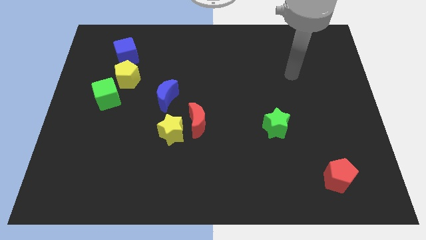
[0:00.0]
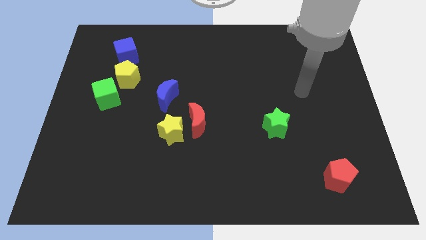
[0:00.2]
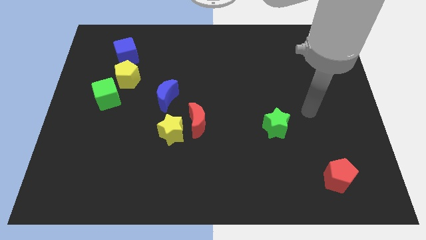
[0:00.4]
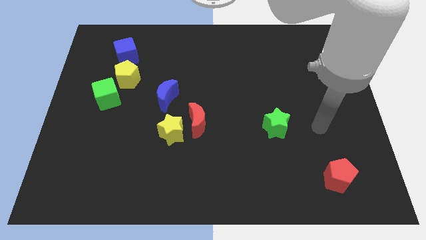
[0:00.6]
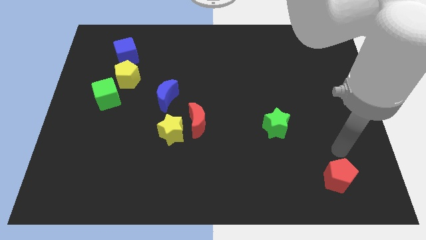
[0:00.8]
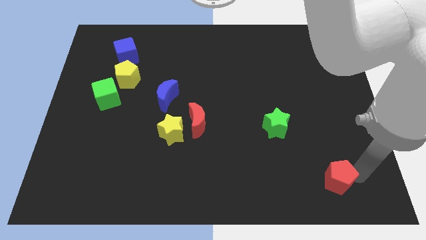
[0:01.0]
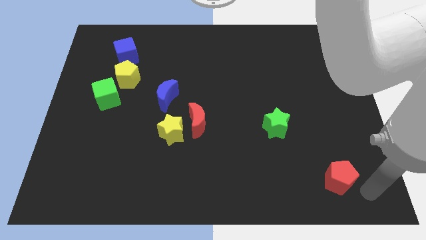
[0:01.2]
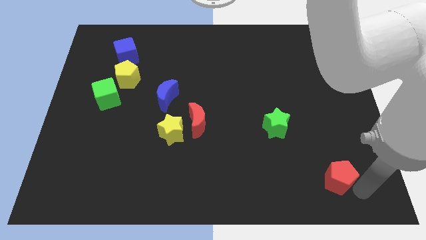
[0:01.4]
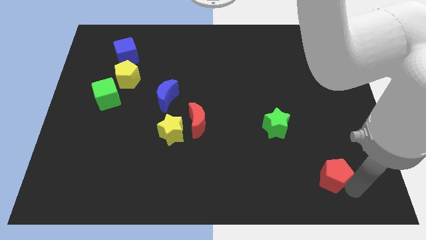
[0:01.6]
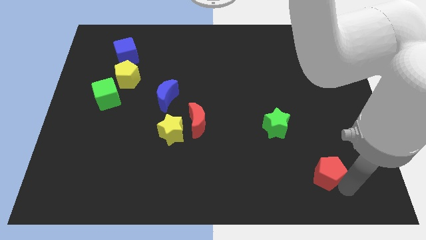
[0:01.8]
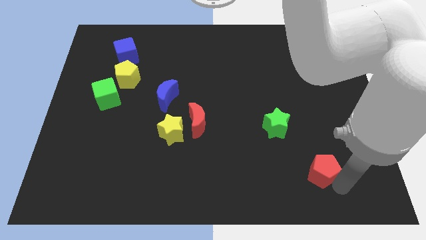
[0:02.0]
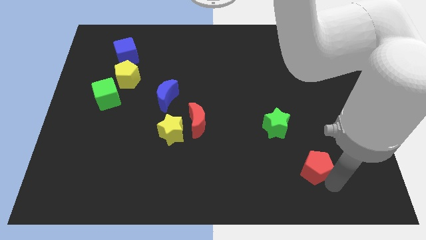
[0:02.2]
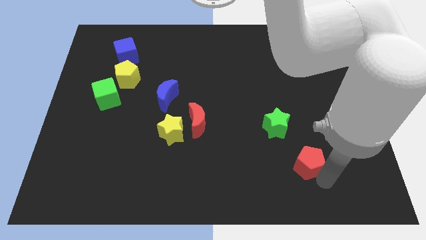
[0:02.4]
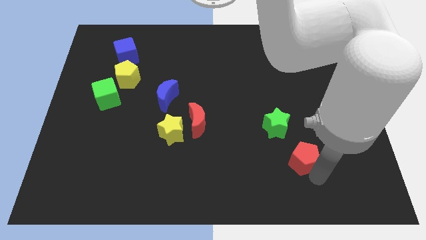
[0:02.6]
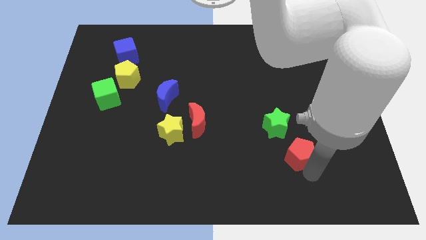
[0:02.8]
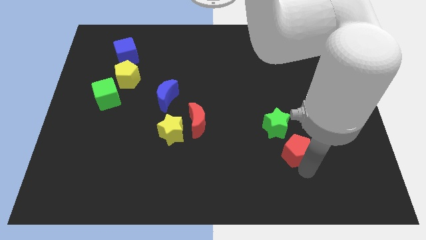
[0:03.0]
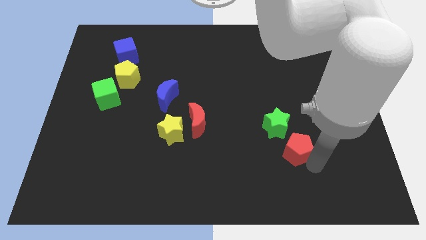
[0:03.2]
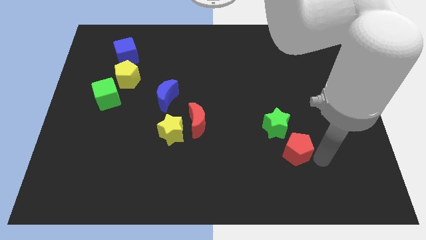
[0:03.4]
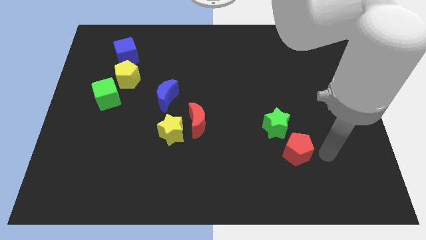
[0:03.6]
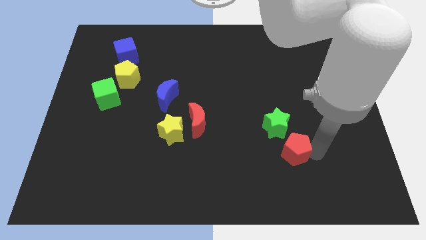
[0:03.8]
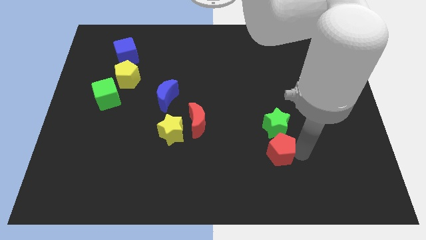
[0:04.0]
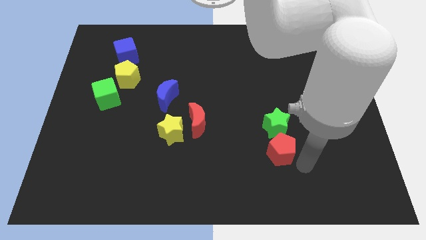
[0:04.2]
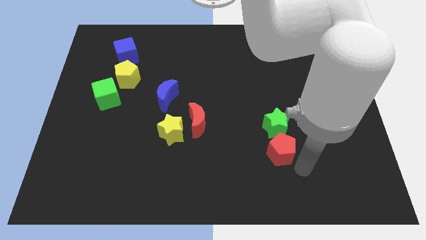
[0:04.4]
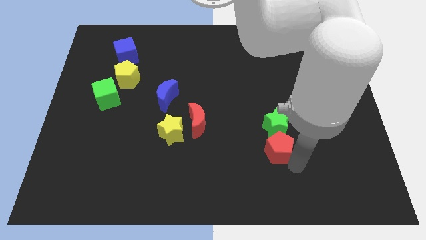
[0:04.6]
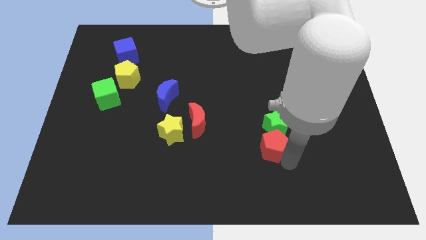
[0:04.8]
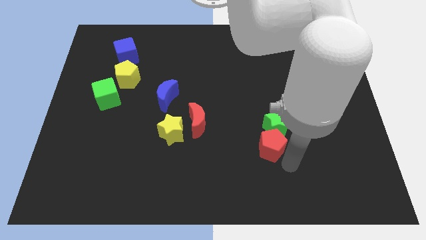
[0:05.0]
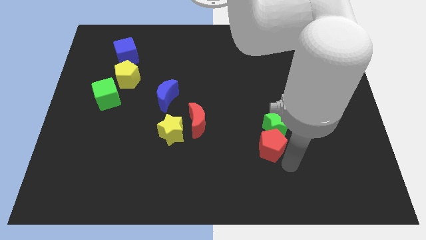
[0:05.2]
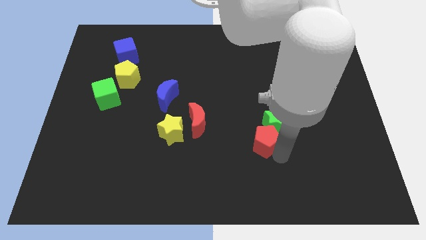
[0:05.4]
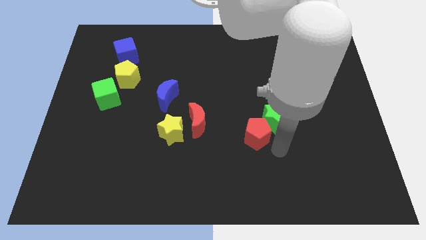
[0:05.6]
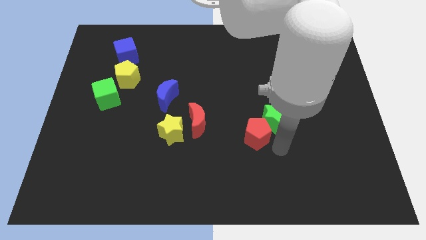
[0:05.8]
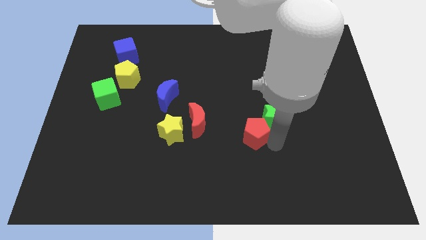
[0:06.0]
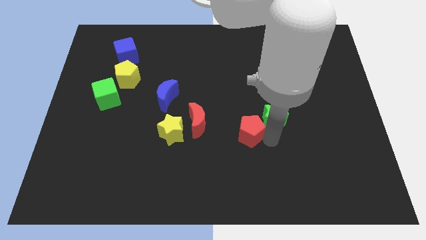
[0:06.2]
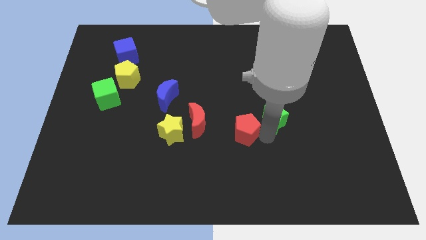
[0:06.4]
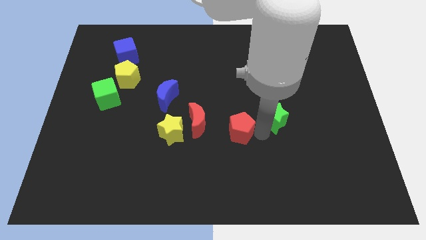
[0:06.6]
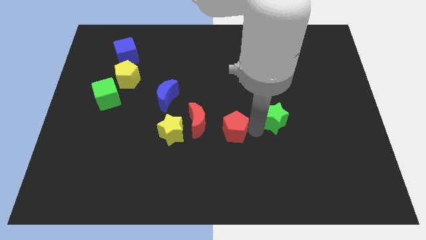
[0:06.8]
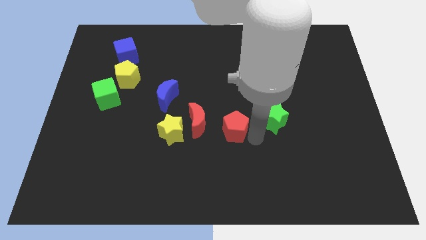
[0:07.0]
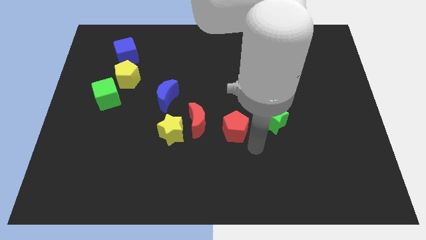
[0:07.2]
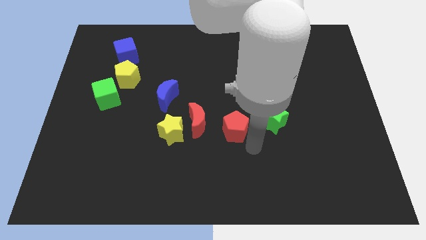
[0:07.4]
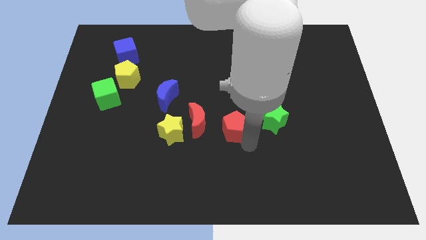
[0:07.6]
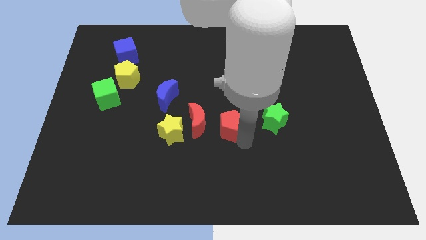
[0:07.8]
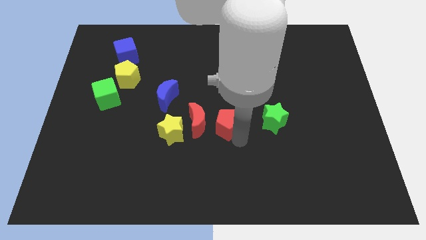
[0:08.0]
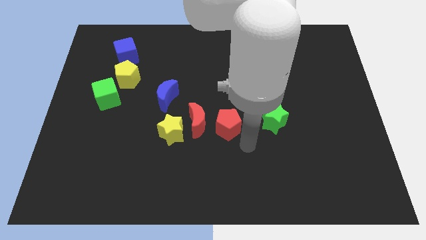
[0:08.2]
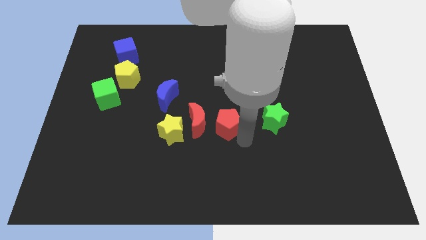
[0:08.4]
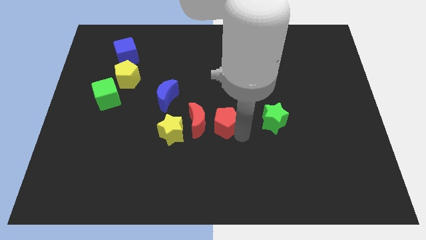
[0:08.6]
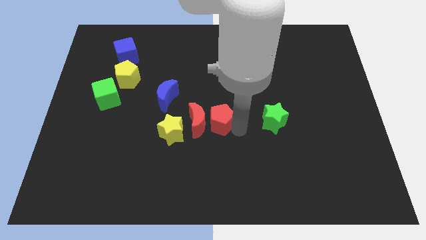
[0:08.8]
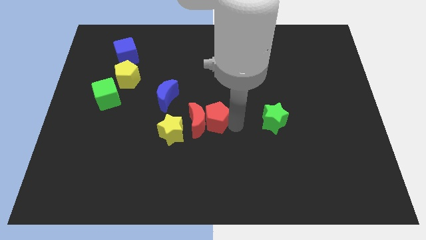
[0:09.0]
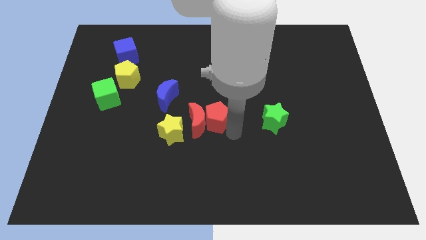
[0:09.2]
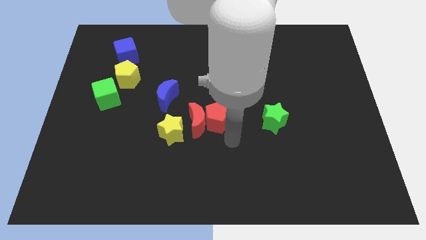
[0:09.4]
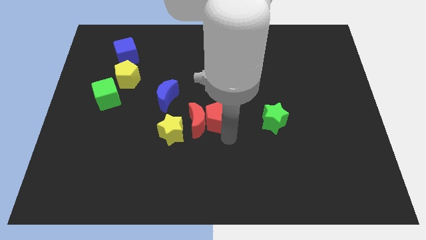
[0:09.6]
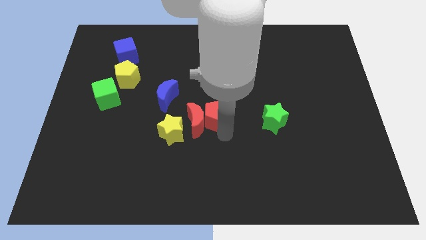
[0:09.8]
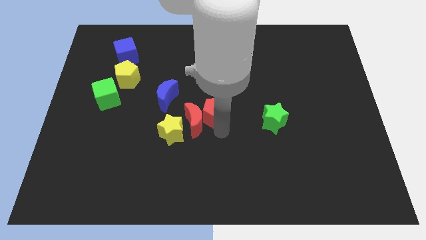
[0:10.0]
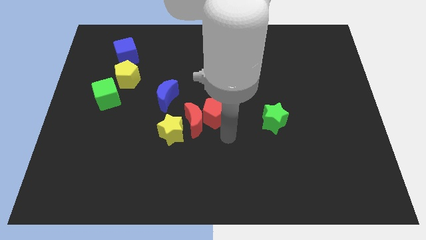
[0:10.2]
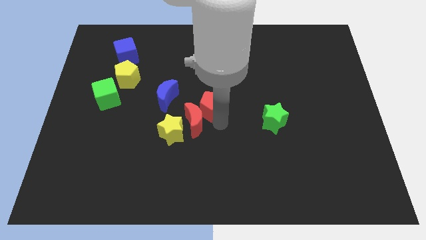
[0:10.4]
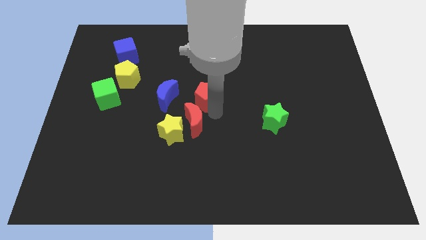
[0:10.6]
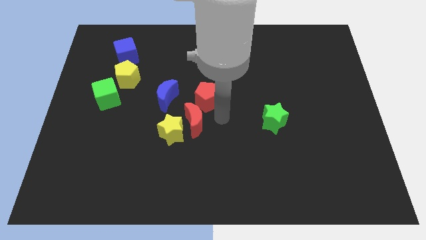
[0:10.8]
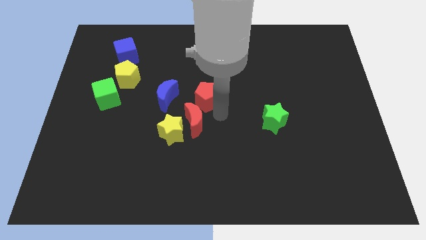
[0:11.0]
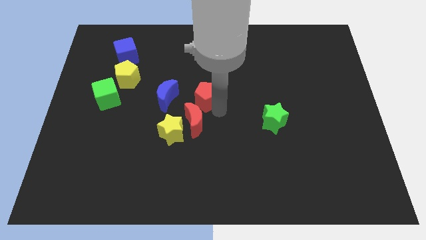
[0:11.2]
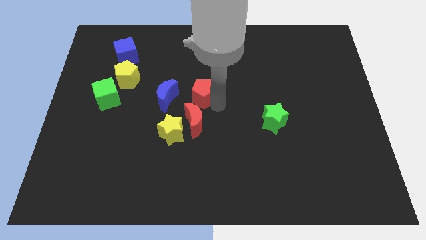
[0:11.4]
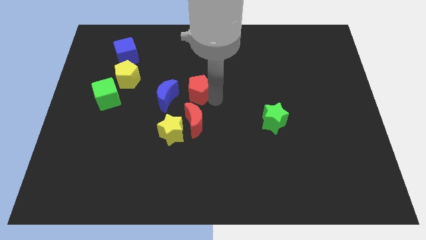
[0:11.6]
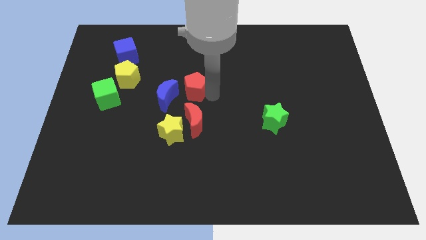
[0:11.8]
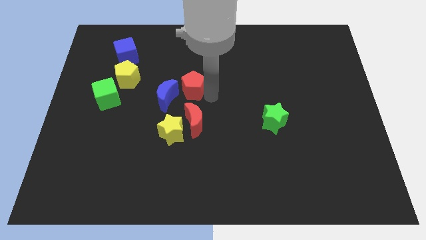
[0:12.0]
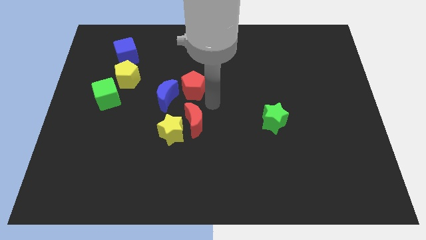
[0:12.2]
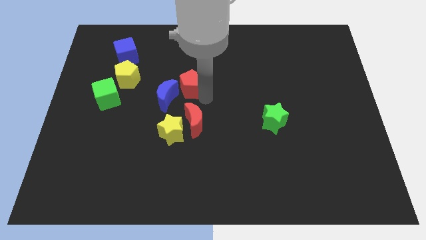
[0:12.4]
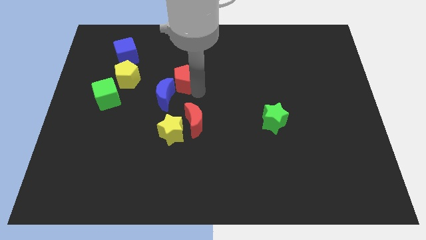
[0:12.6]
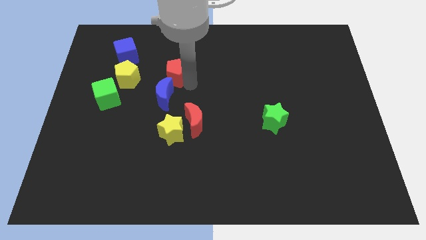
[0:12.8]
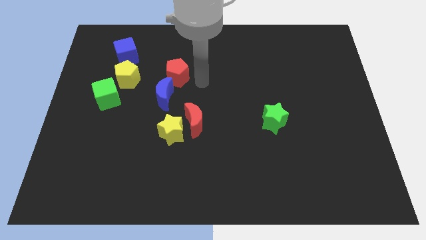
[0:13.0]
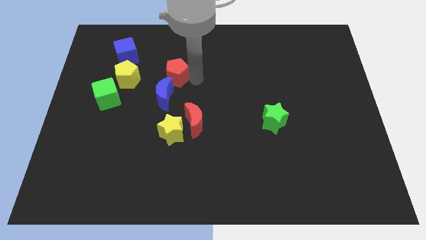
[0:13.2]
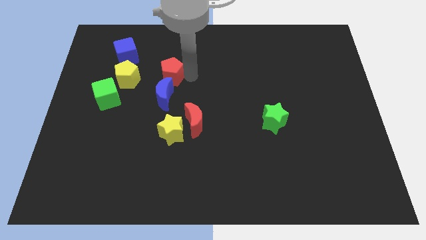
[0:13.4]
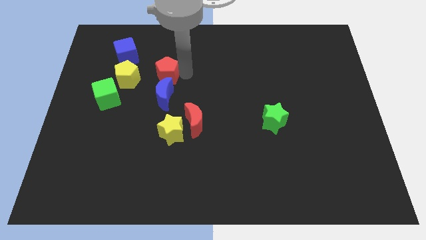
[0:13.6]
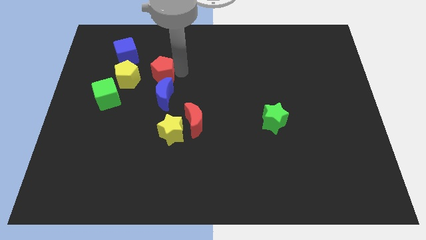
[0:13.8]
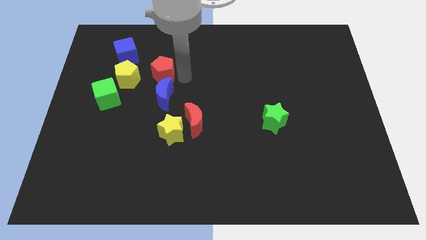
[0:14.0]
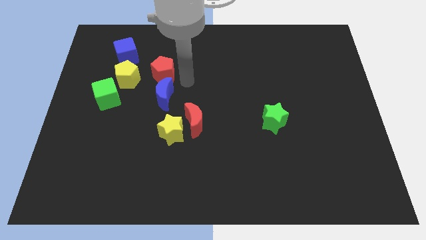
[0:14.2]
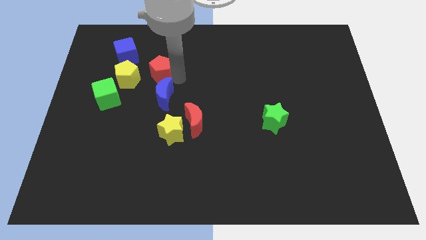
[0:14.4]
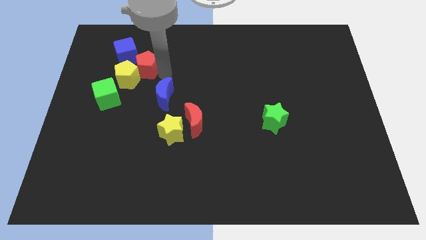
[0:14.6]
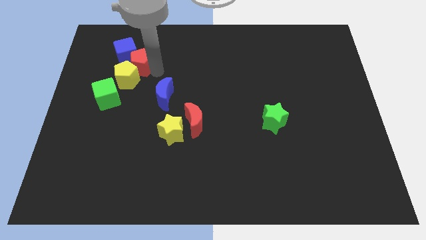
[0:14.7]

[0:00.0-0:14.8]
push the red pentagon next to the blue cube
